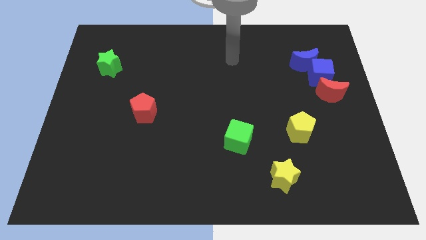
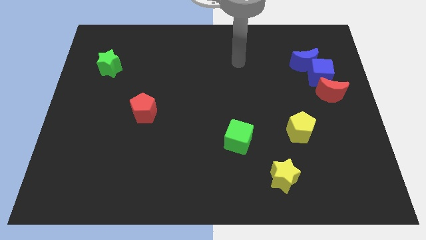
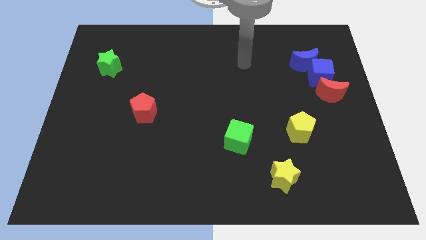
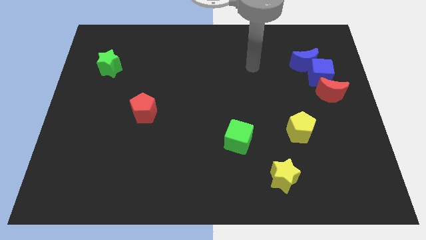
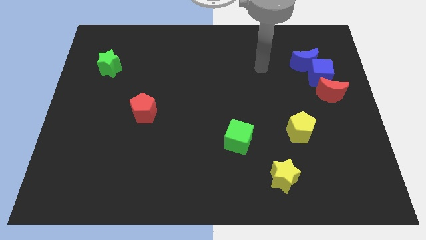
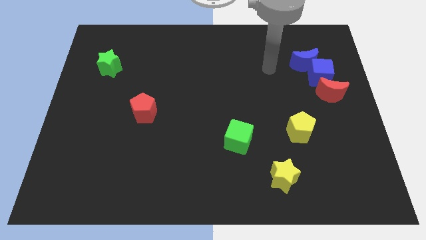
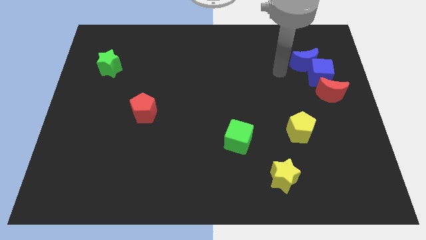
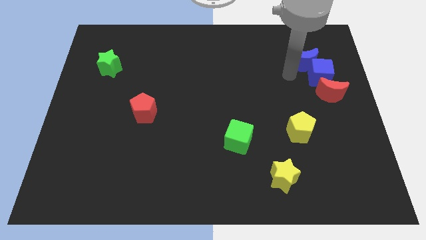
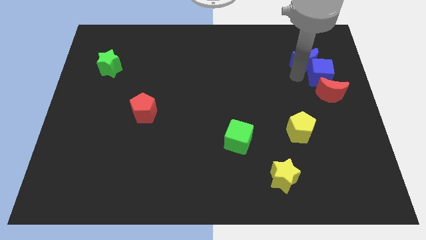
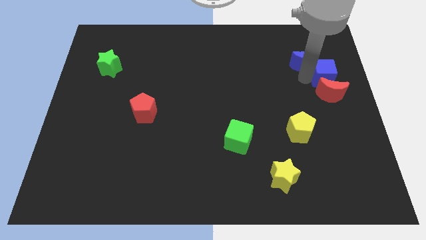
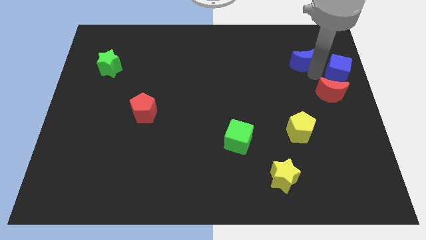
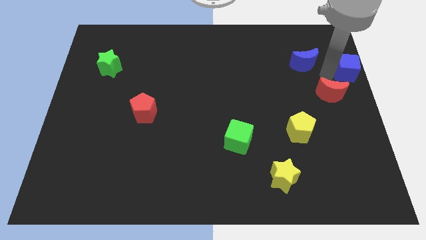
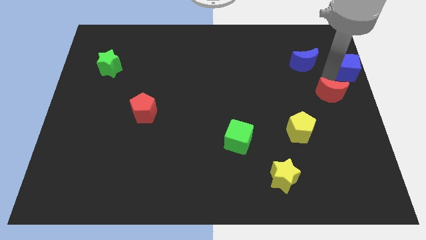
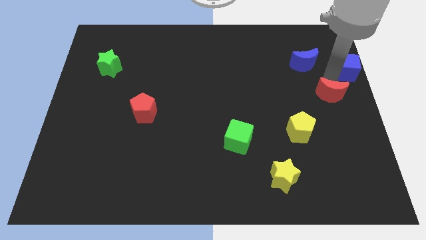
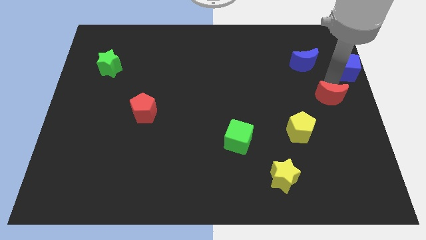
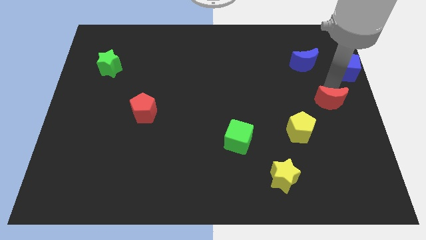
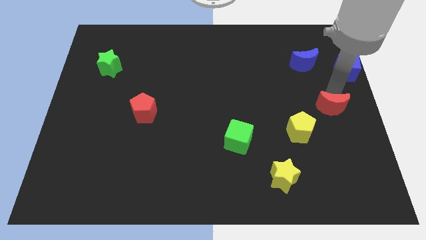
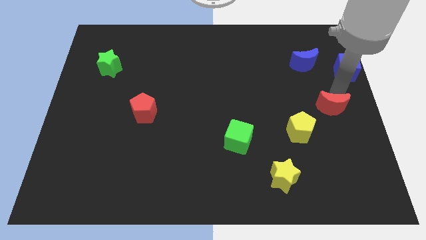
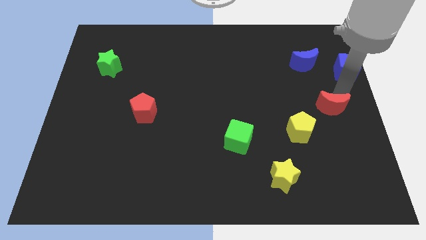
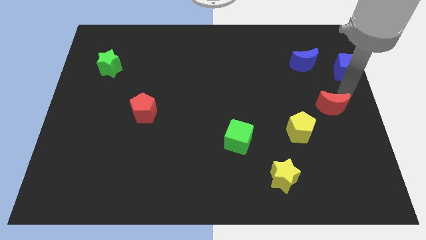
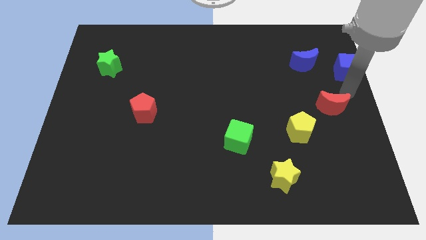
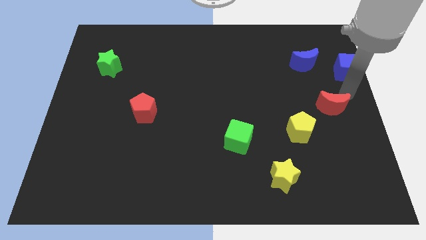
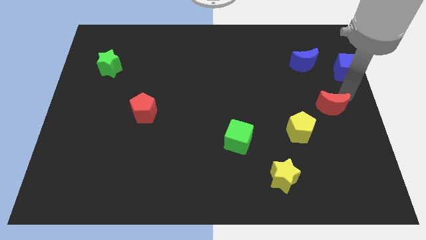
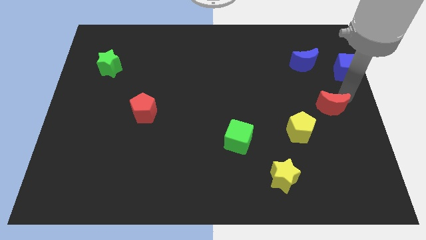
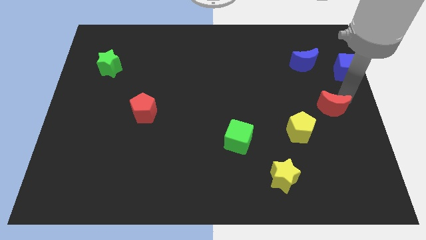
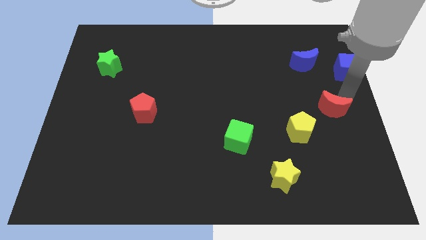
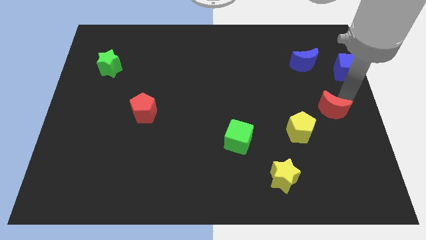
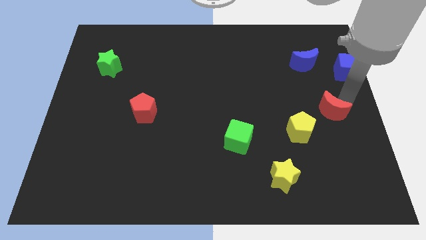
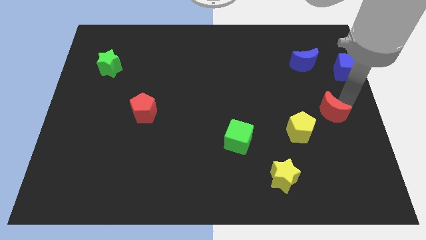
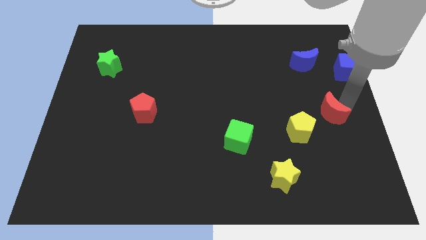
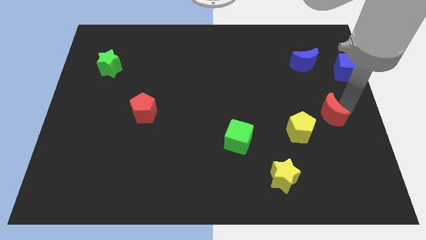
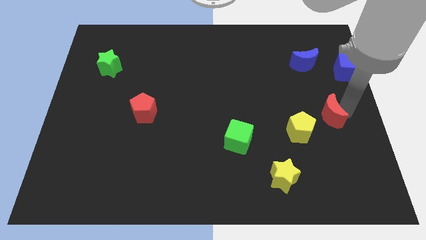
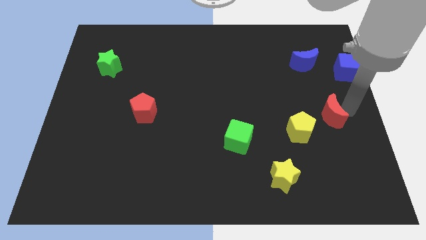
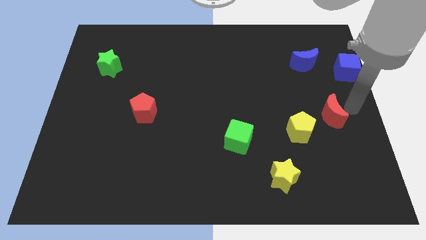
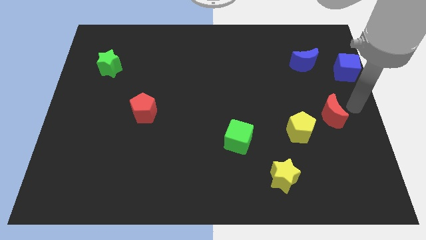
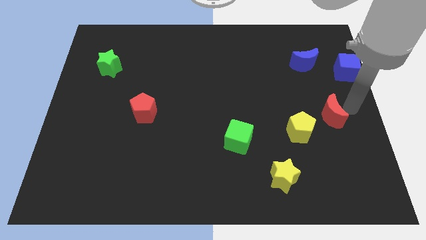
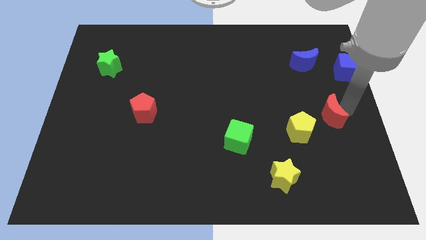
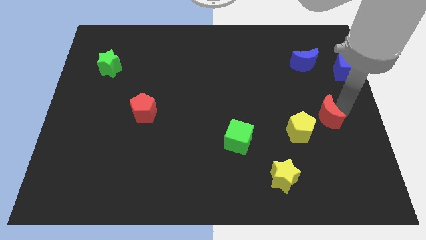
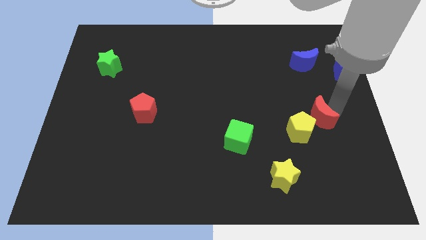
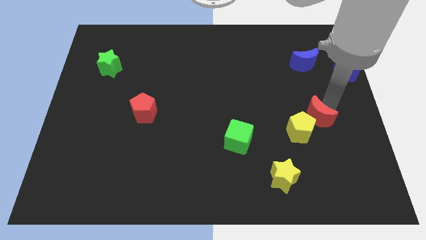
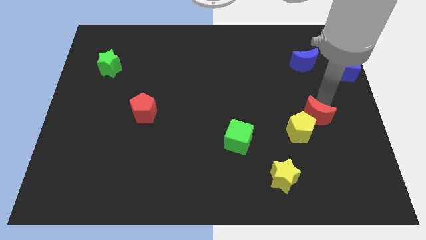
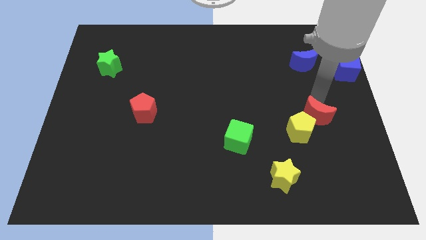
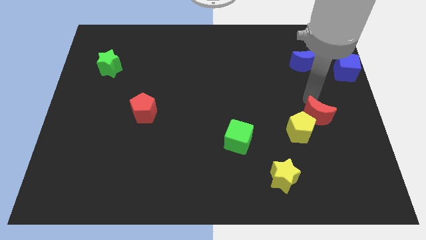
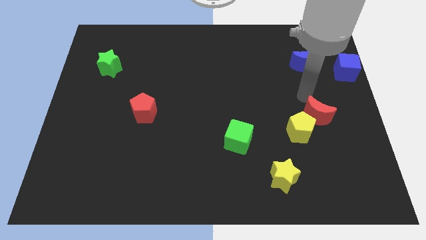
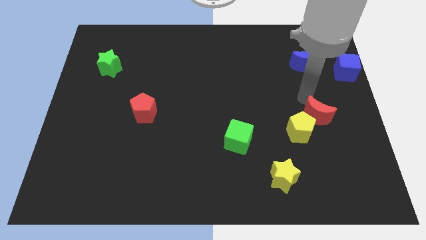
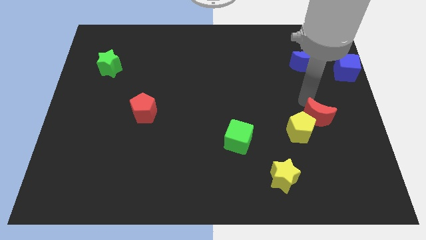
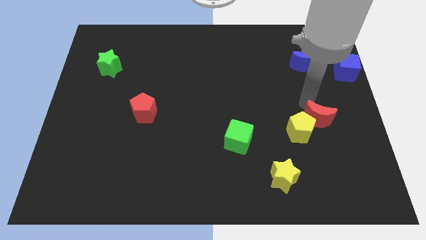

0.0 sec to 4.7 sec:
move the red moon downwards slightly

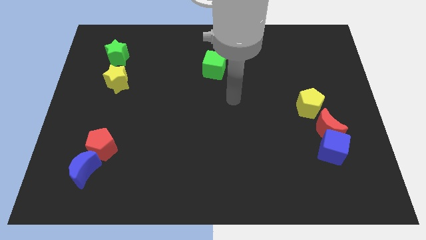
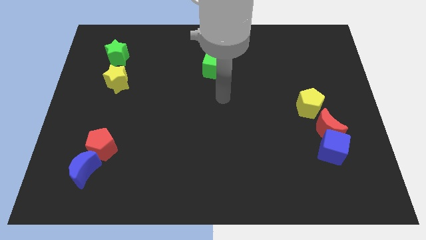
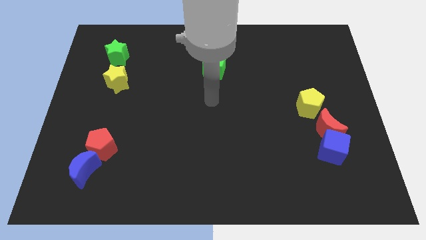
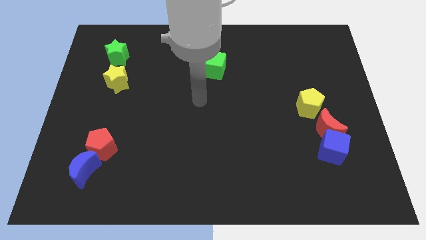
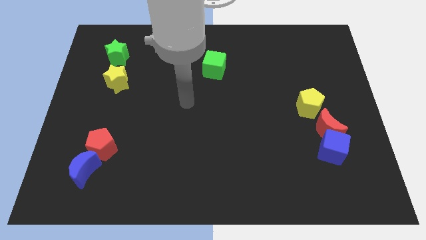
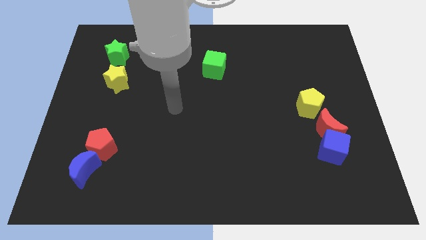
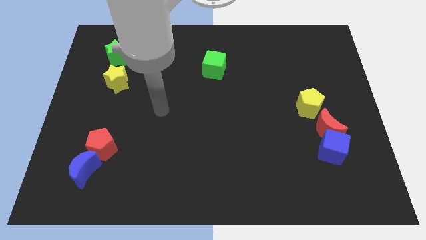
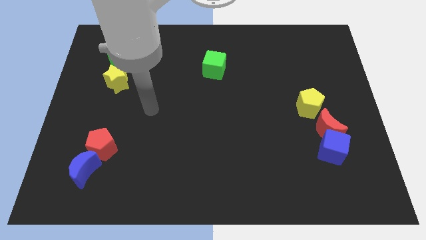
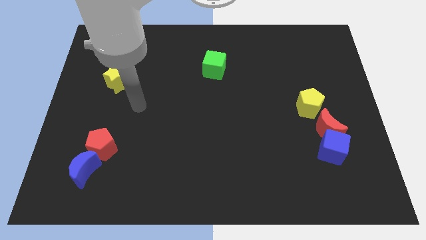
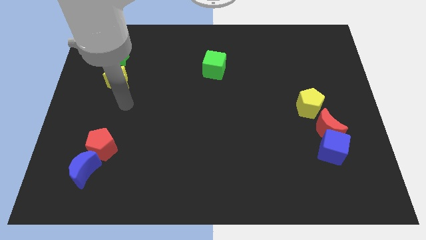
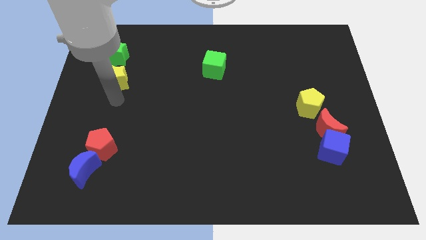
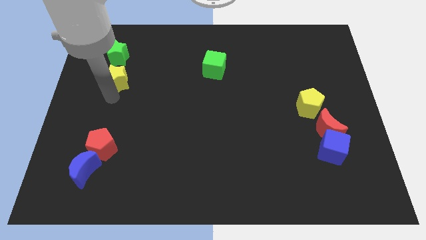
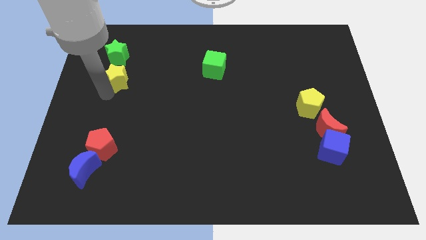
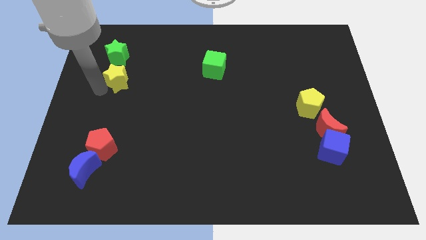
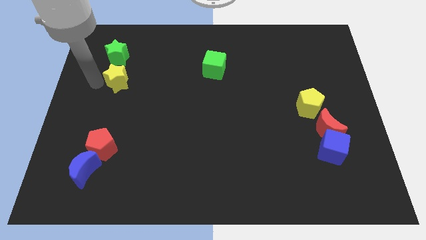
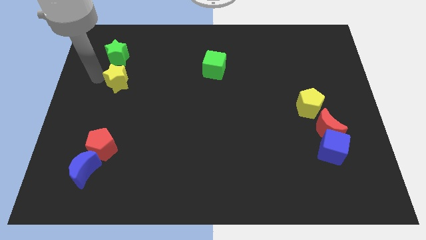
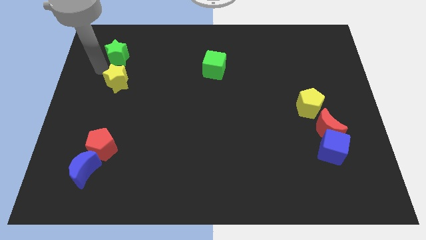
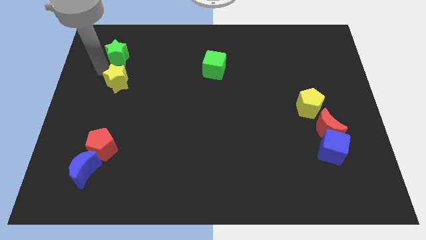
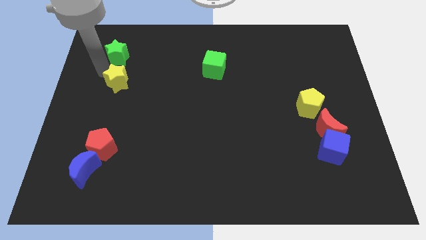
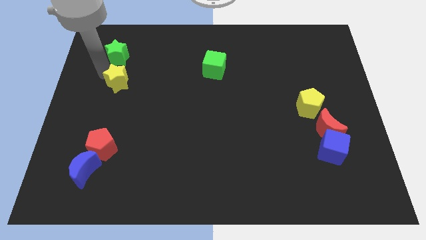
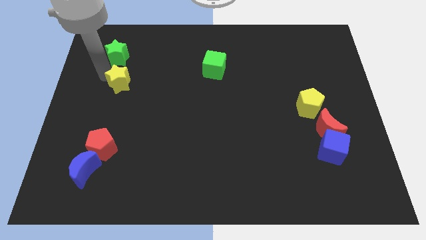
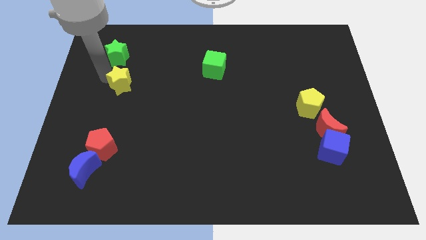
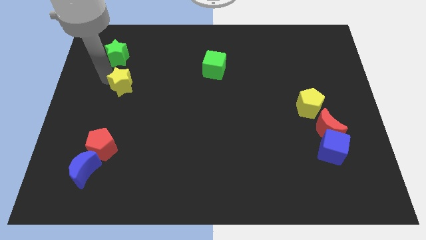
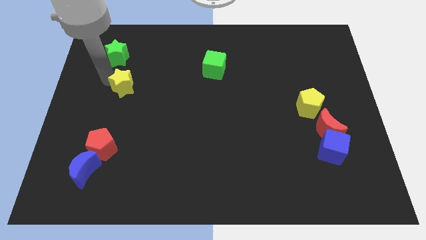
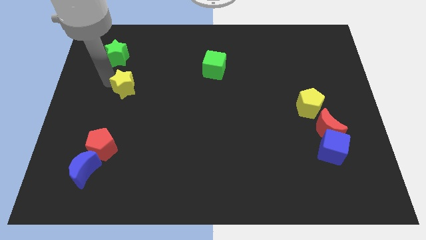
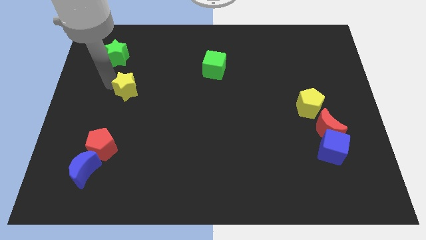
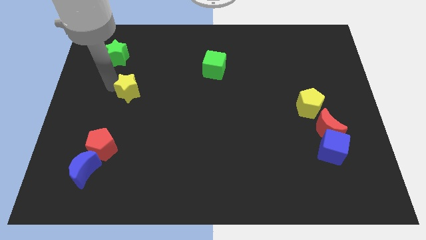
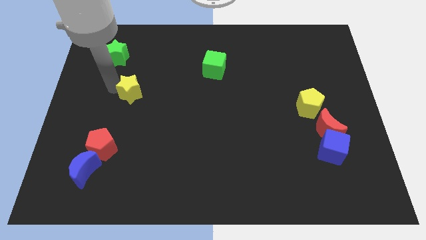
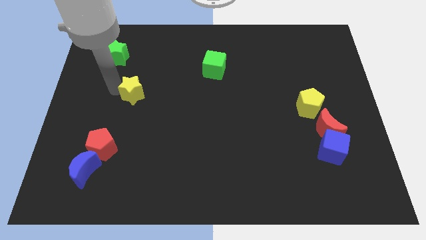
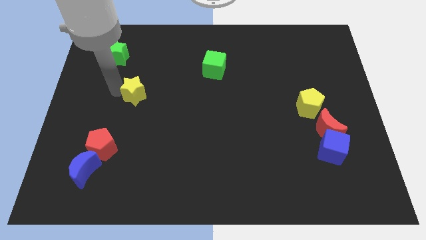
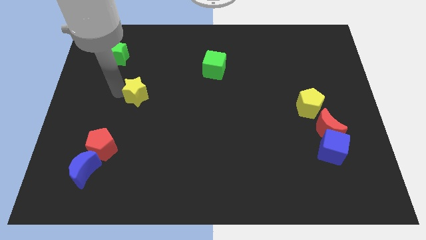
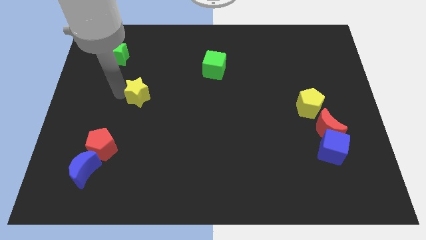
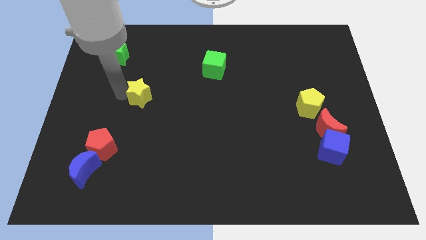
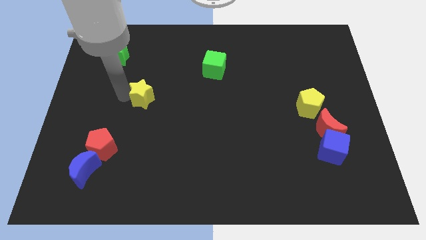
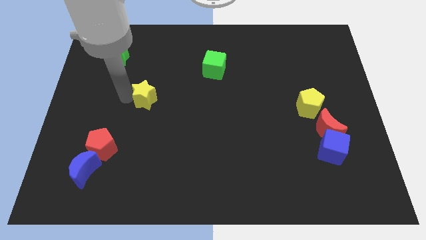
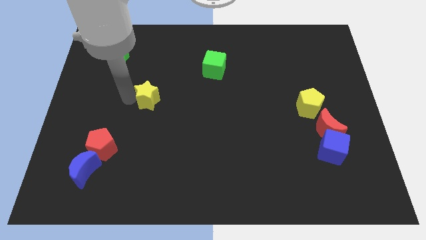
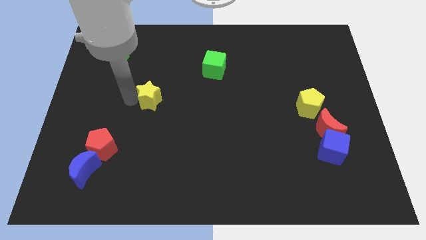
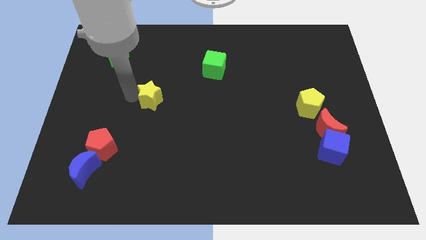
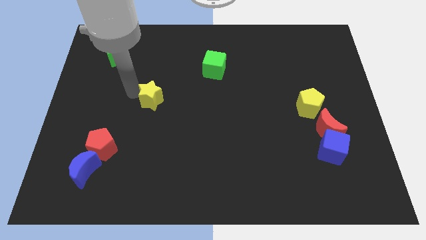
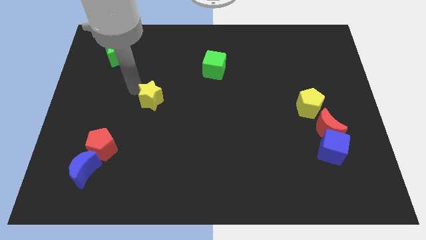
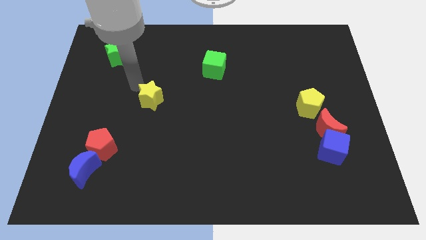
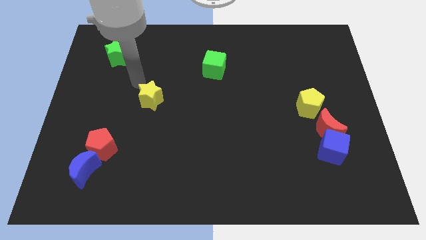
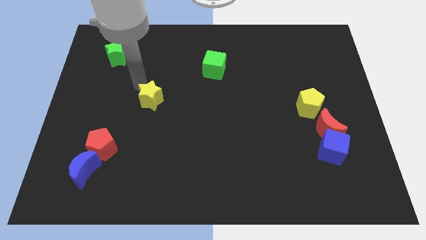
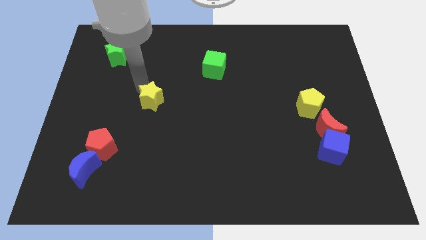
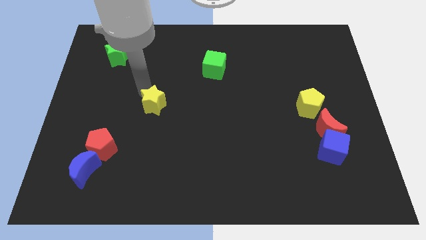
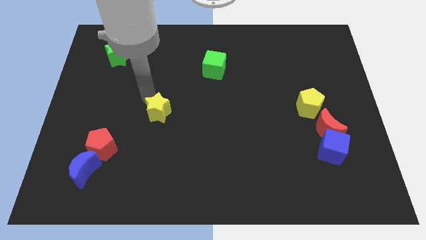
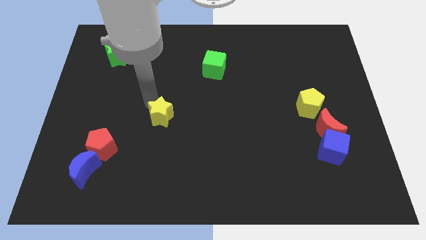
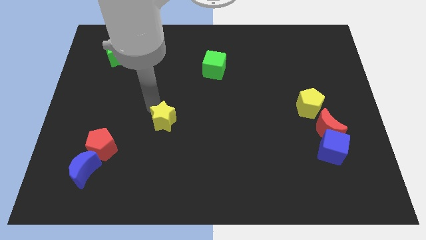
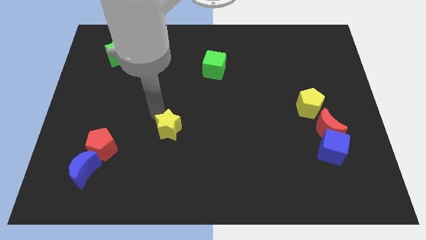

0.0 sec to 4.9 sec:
move the yellow star down and then right
